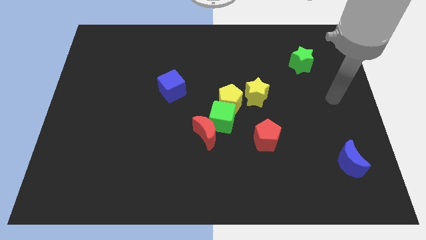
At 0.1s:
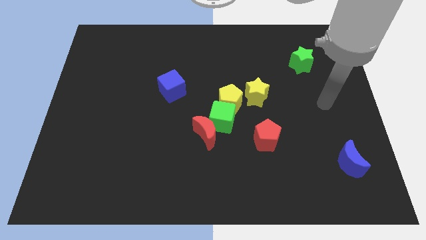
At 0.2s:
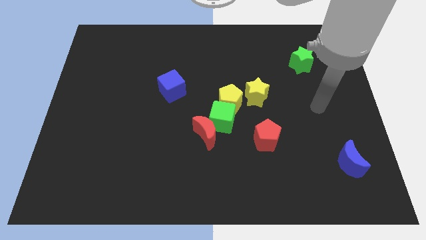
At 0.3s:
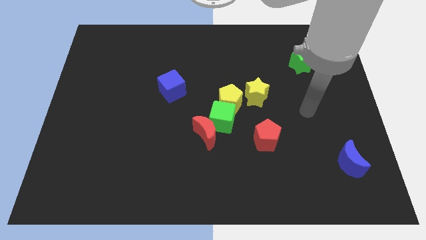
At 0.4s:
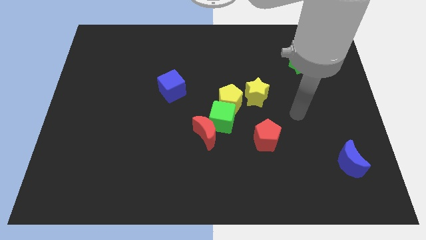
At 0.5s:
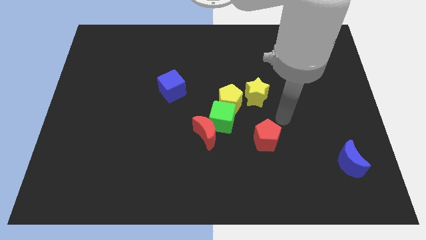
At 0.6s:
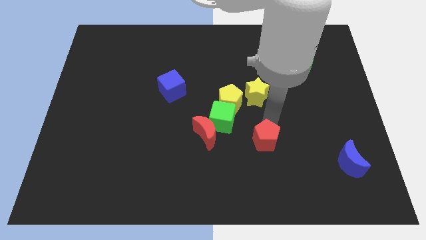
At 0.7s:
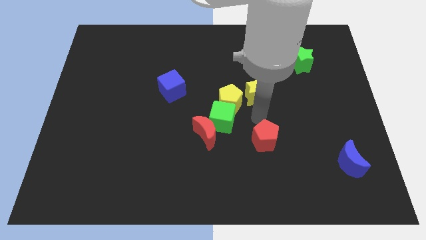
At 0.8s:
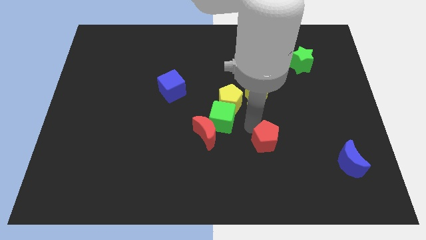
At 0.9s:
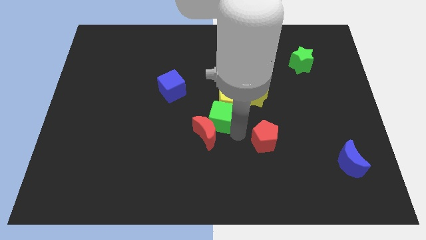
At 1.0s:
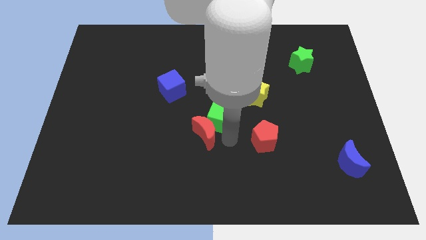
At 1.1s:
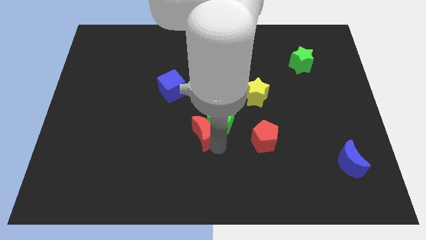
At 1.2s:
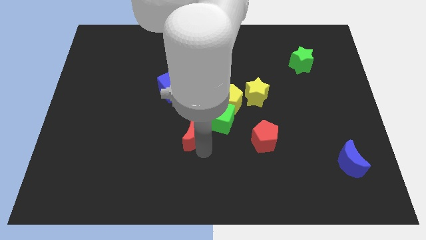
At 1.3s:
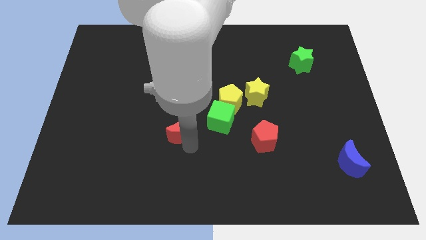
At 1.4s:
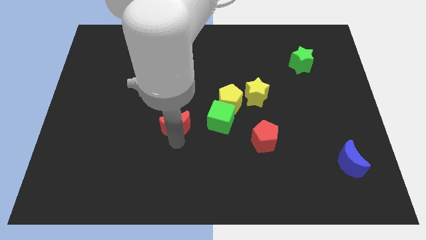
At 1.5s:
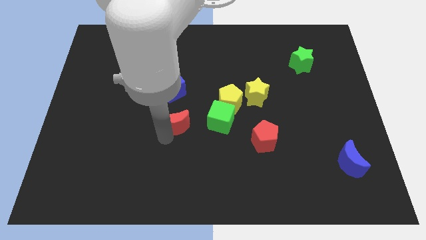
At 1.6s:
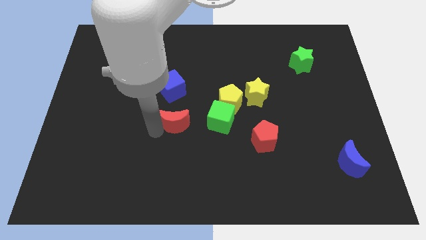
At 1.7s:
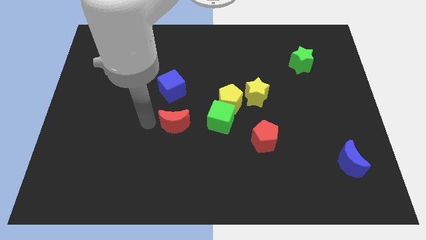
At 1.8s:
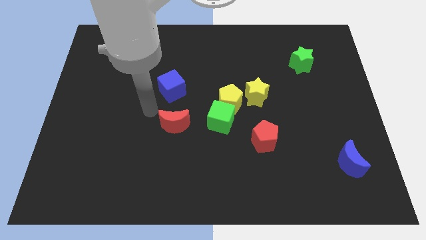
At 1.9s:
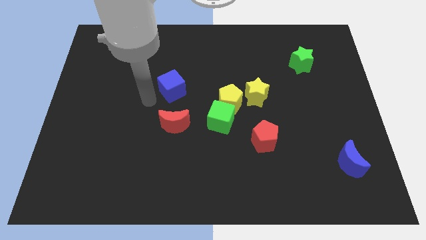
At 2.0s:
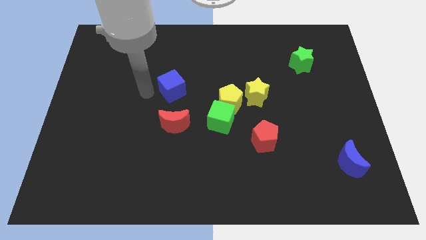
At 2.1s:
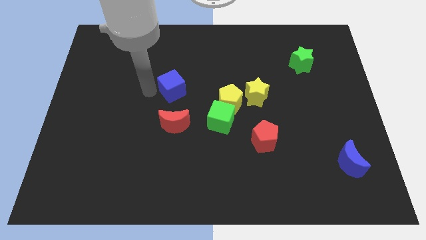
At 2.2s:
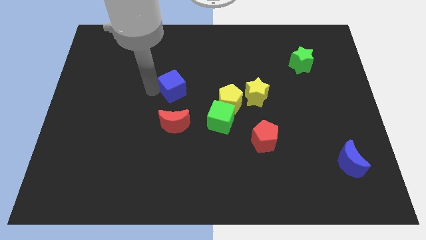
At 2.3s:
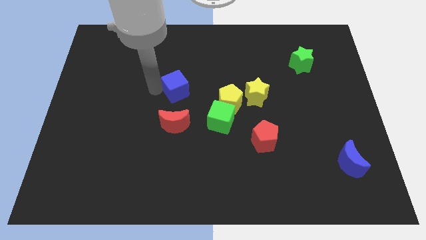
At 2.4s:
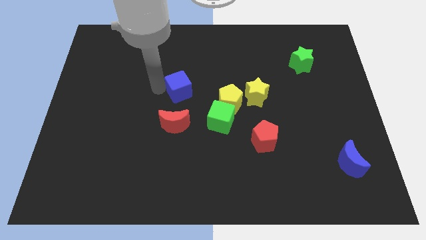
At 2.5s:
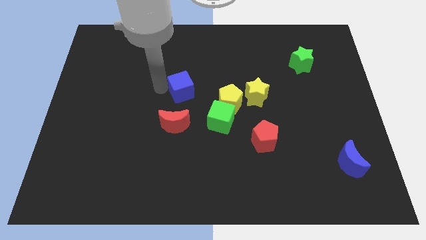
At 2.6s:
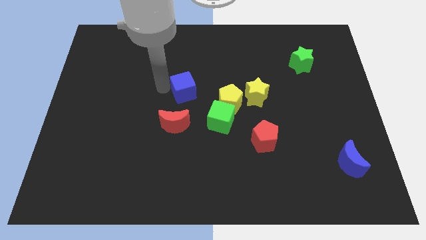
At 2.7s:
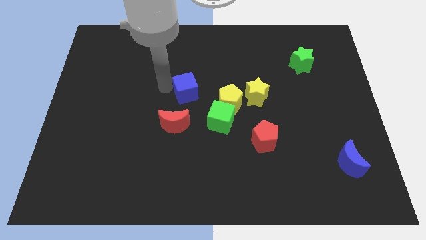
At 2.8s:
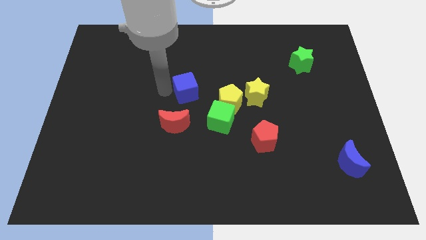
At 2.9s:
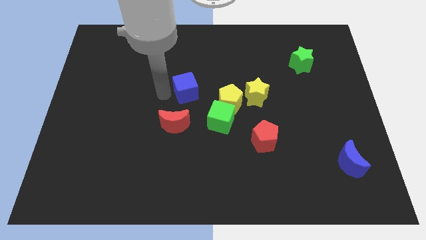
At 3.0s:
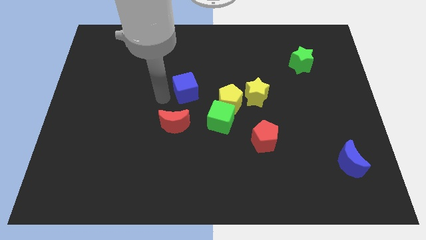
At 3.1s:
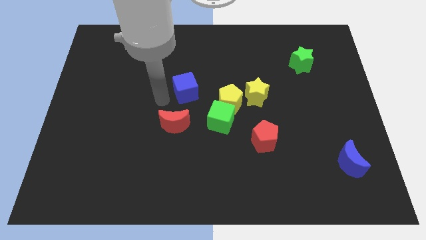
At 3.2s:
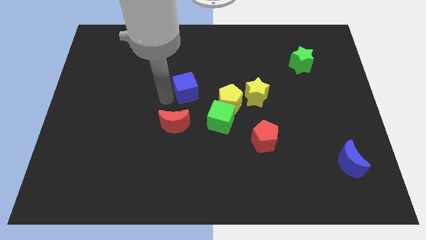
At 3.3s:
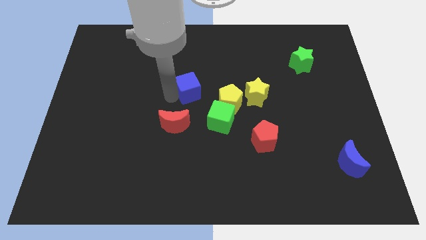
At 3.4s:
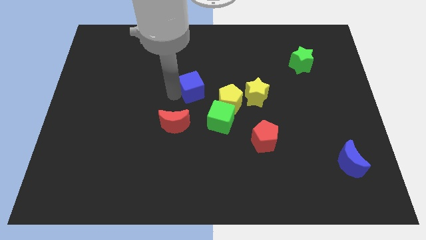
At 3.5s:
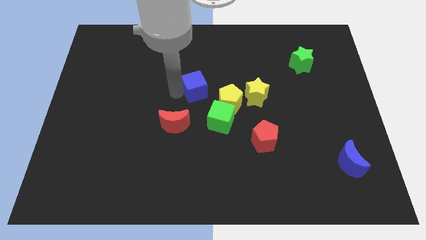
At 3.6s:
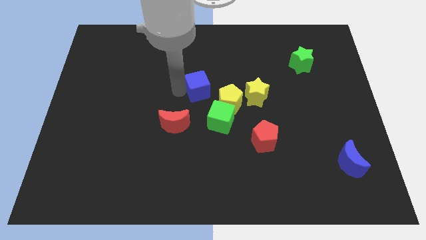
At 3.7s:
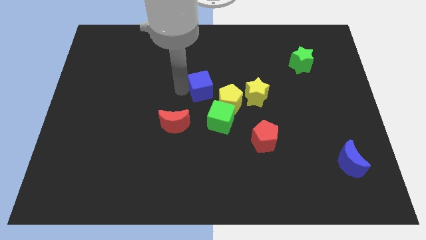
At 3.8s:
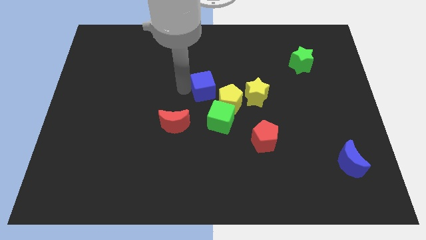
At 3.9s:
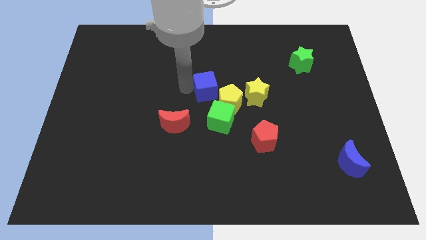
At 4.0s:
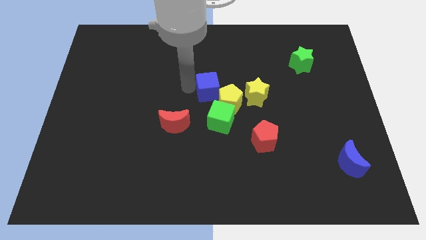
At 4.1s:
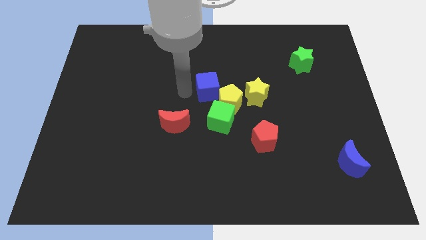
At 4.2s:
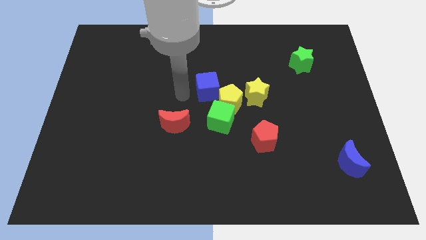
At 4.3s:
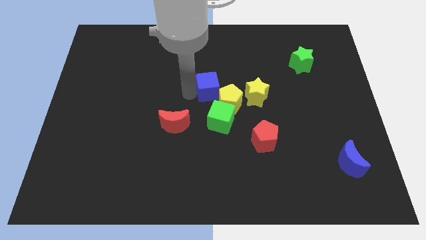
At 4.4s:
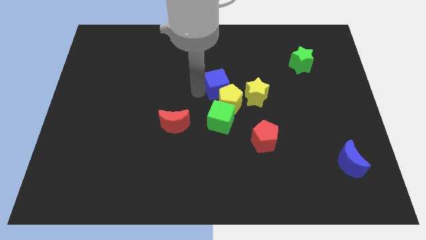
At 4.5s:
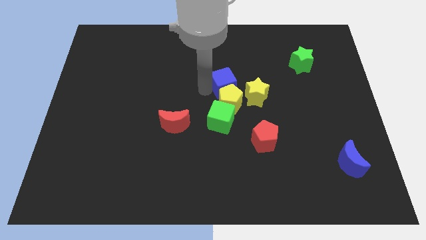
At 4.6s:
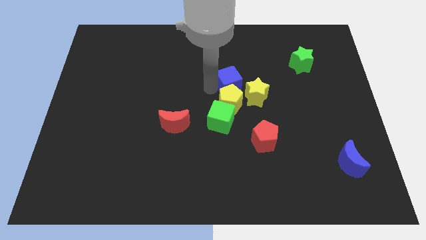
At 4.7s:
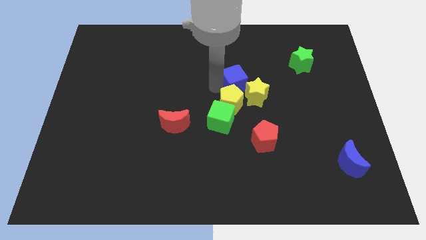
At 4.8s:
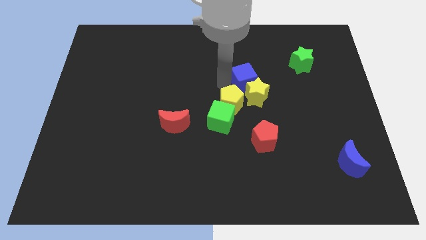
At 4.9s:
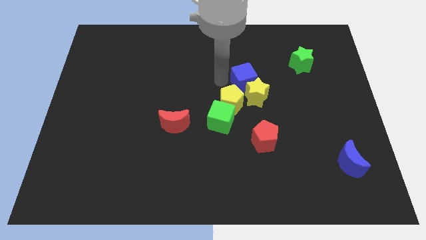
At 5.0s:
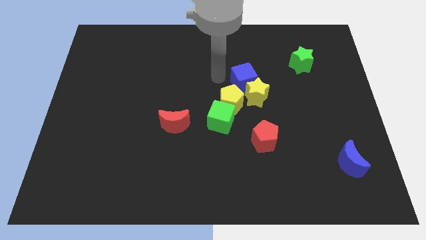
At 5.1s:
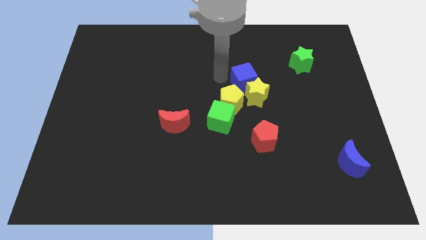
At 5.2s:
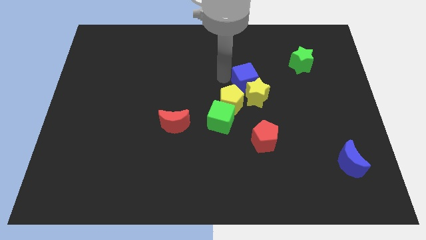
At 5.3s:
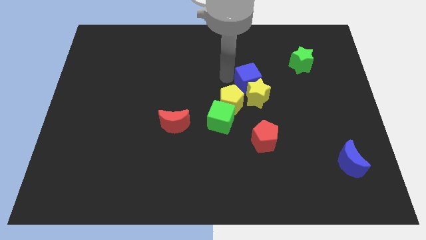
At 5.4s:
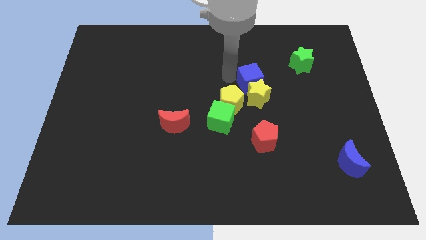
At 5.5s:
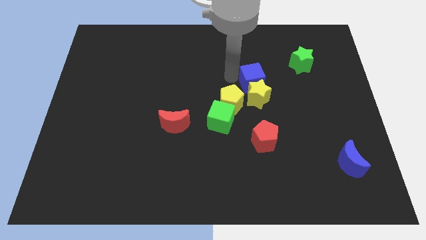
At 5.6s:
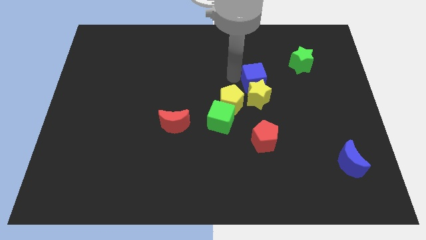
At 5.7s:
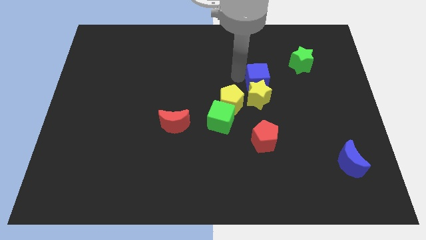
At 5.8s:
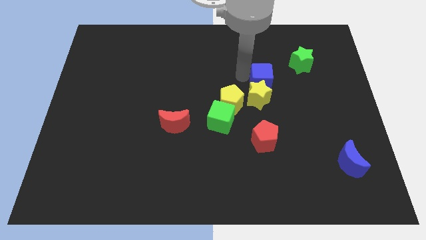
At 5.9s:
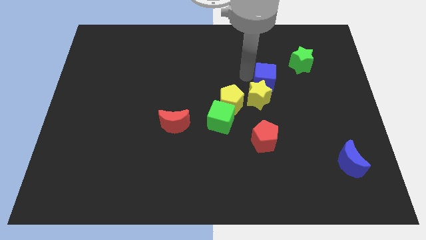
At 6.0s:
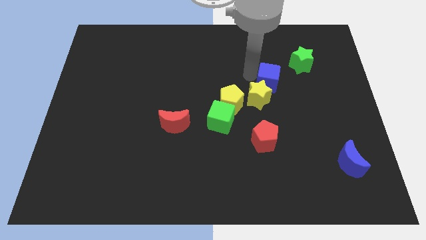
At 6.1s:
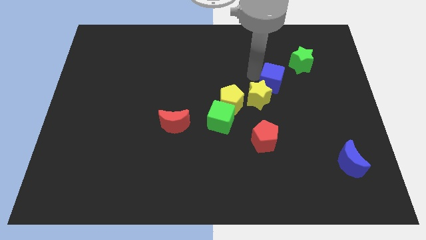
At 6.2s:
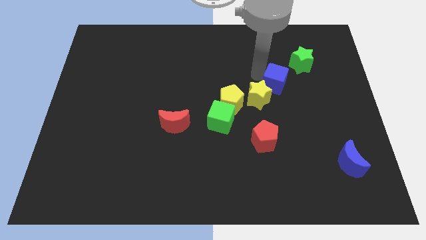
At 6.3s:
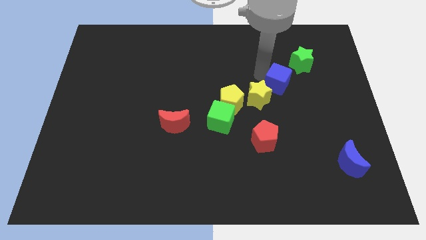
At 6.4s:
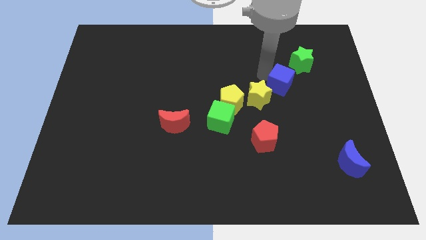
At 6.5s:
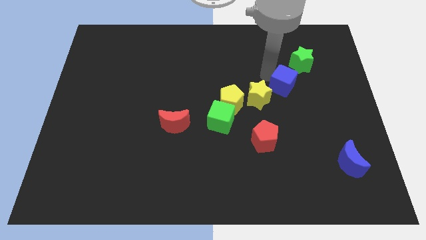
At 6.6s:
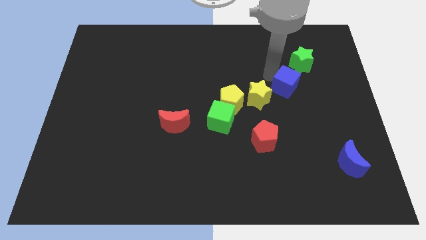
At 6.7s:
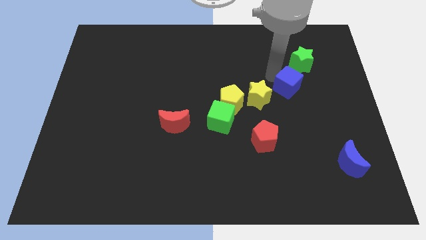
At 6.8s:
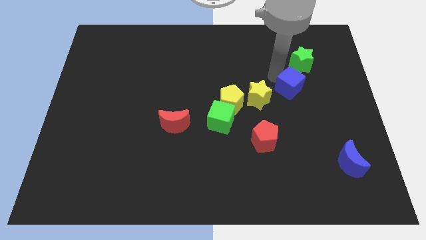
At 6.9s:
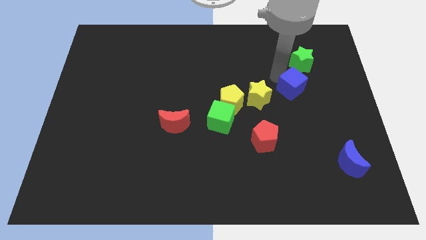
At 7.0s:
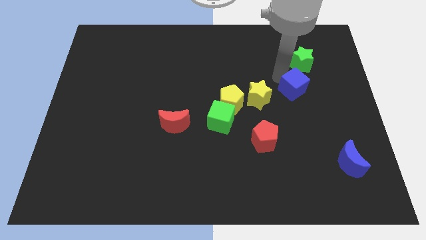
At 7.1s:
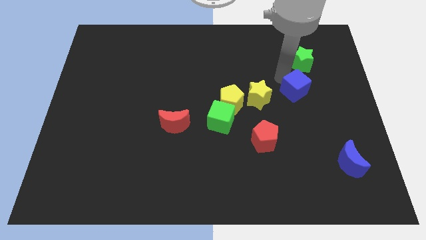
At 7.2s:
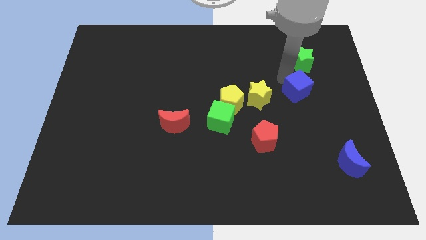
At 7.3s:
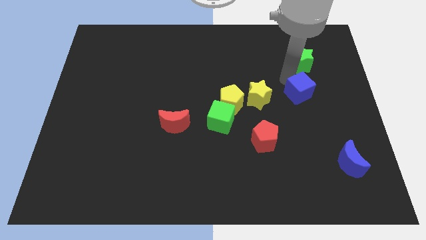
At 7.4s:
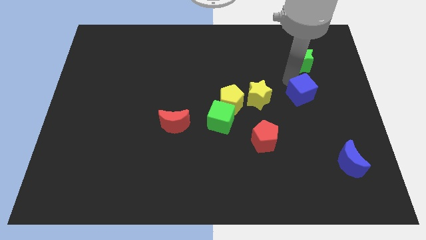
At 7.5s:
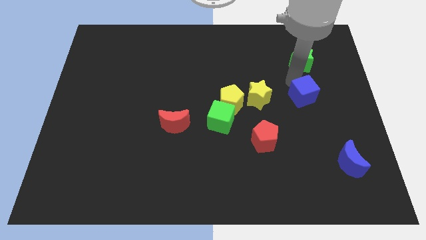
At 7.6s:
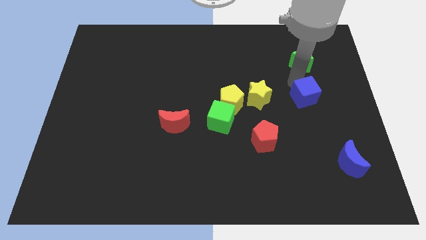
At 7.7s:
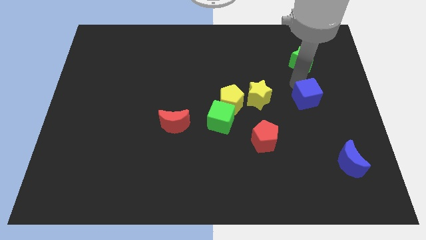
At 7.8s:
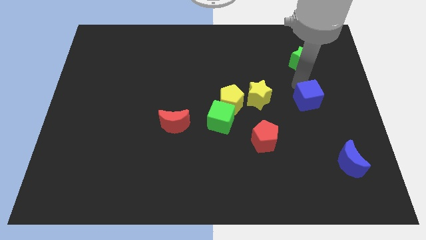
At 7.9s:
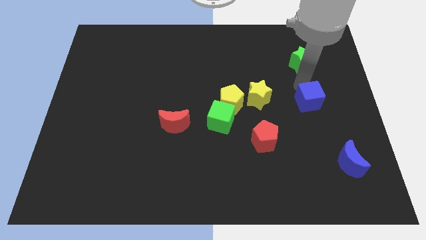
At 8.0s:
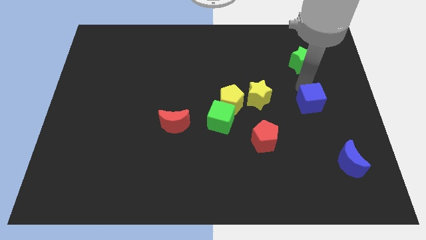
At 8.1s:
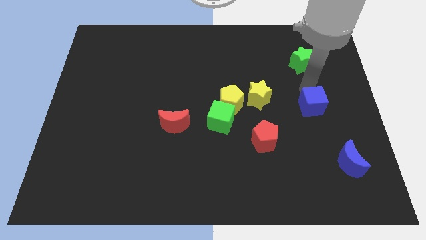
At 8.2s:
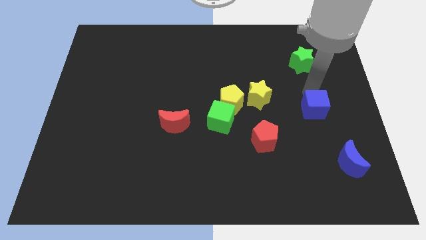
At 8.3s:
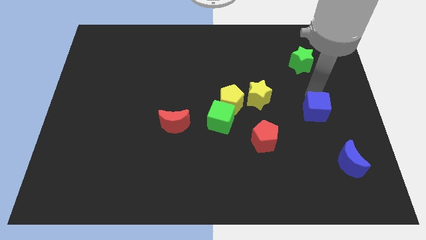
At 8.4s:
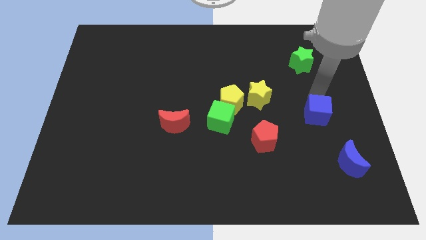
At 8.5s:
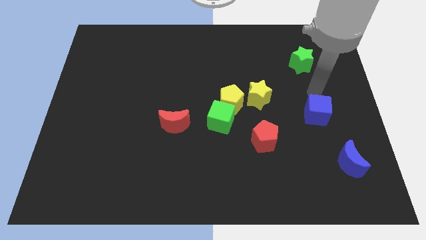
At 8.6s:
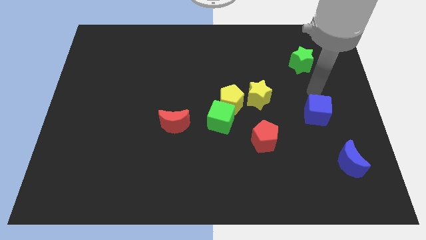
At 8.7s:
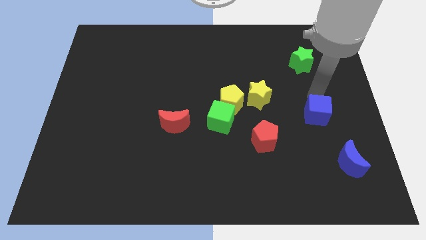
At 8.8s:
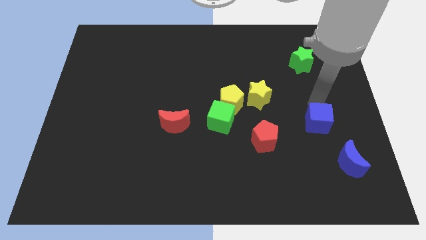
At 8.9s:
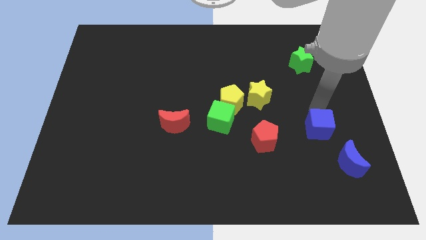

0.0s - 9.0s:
push the blue cube to the top left side of the blue moon
